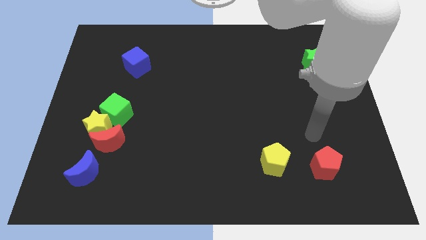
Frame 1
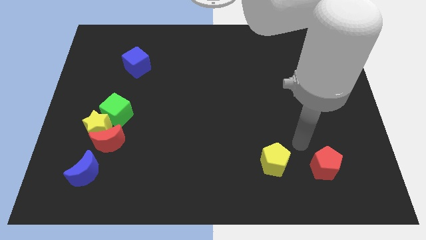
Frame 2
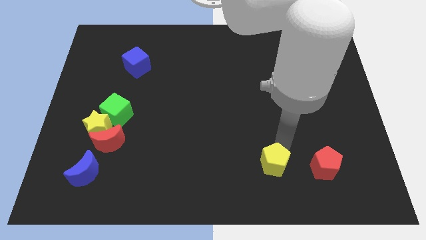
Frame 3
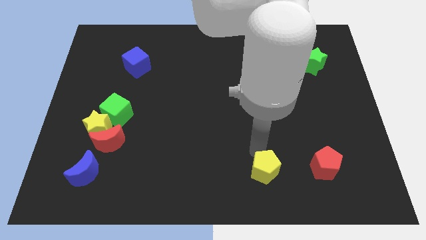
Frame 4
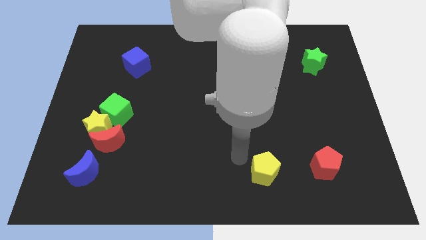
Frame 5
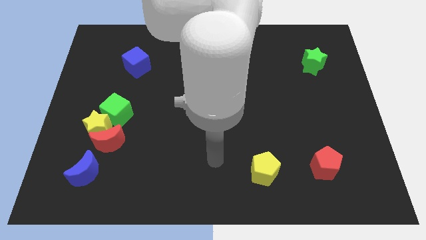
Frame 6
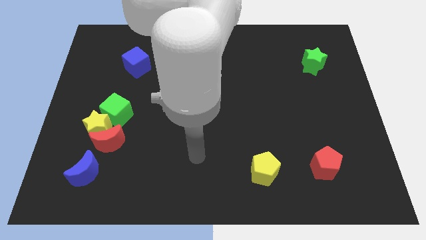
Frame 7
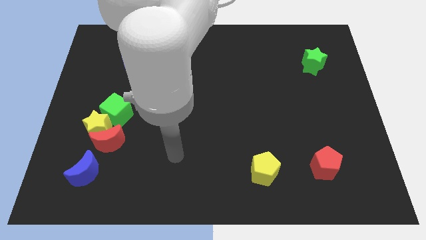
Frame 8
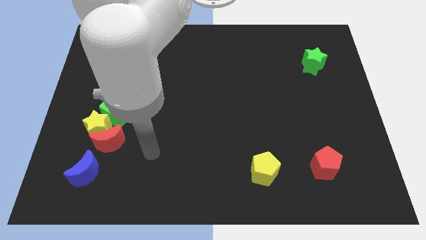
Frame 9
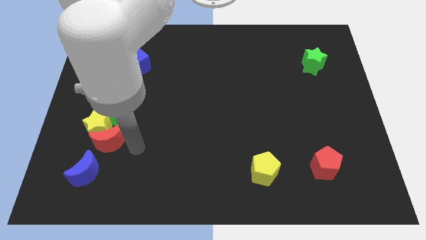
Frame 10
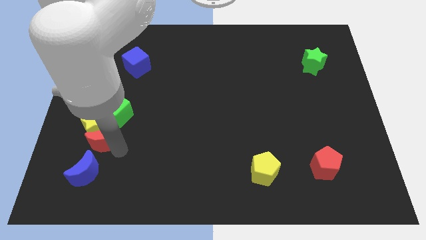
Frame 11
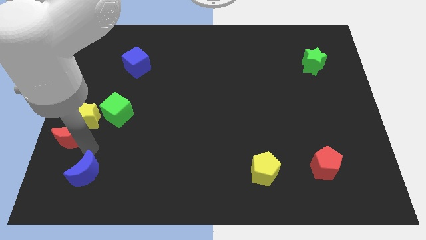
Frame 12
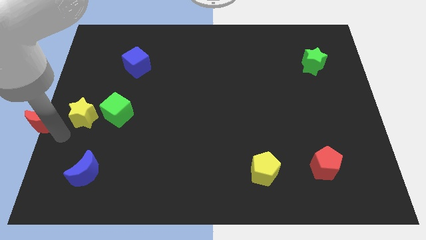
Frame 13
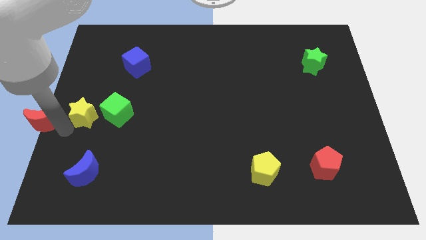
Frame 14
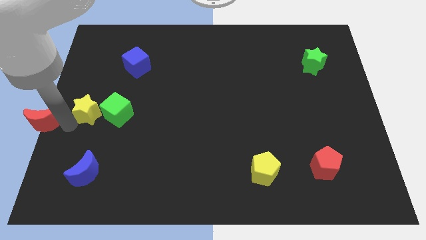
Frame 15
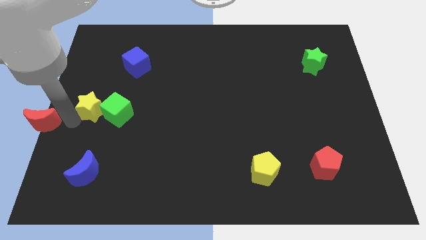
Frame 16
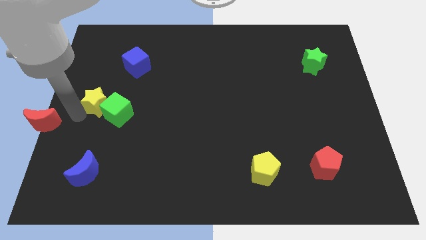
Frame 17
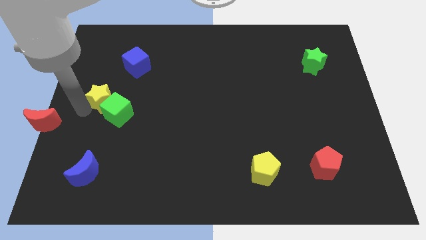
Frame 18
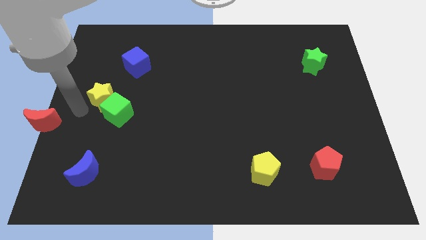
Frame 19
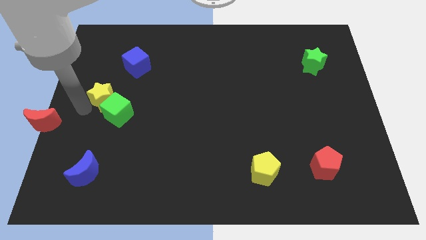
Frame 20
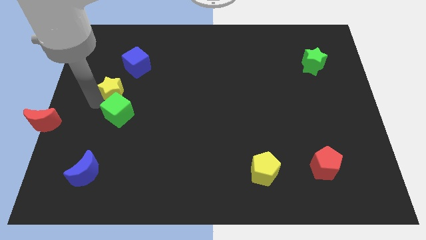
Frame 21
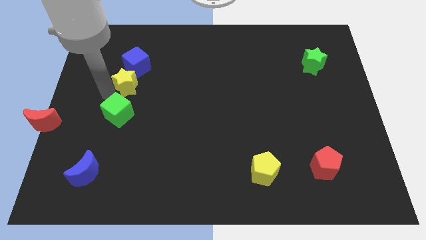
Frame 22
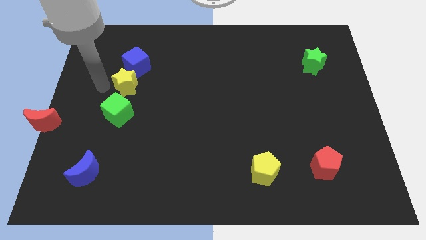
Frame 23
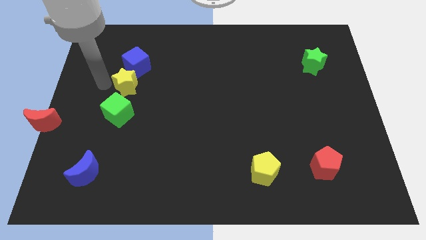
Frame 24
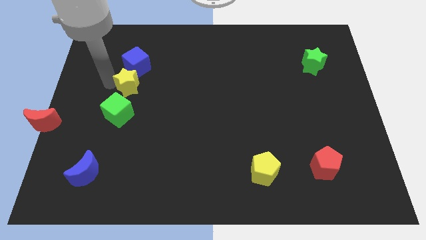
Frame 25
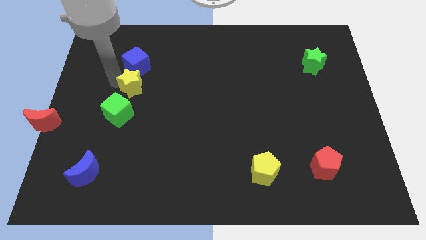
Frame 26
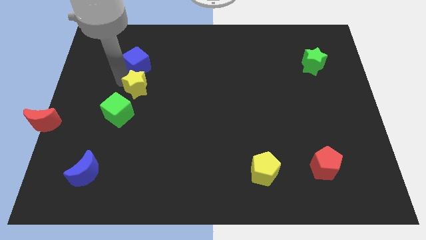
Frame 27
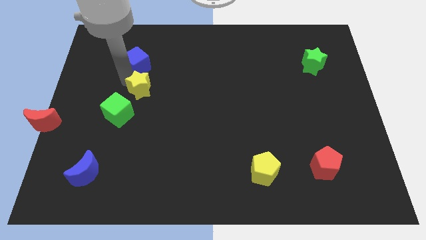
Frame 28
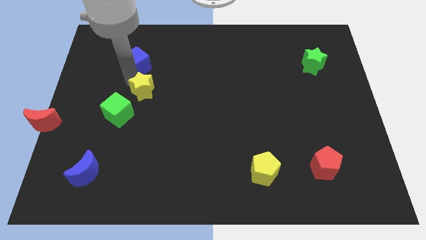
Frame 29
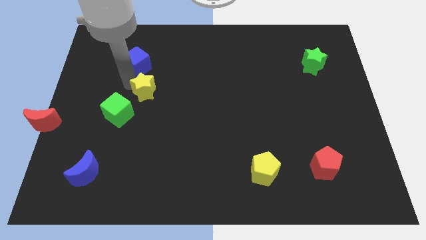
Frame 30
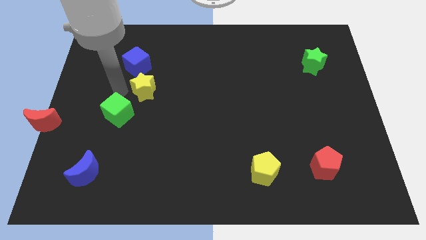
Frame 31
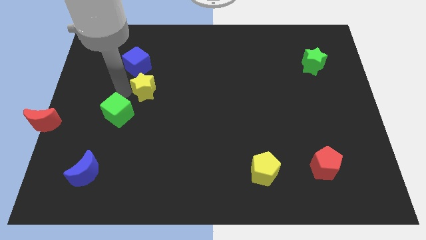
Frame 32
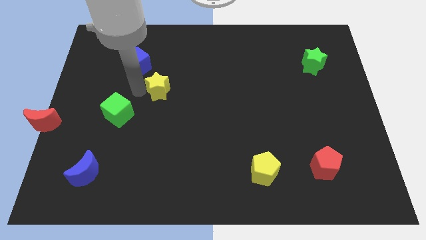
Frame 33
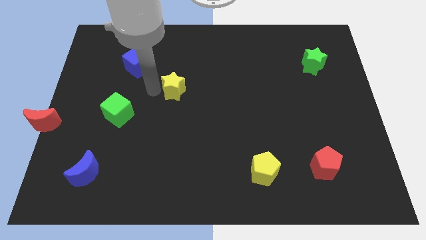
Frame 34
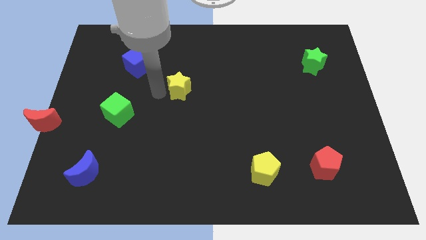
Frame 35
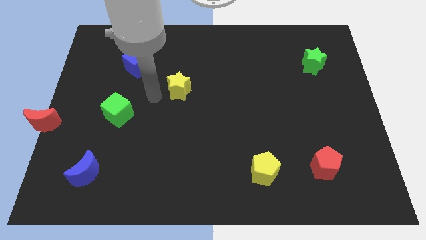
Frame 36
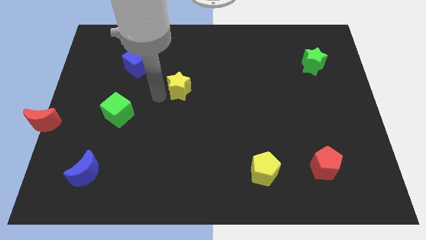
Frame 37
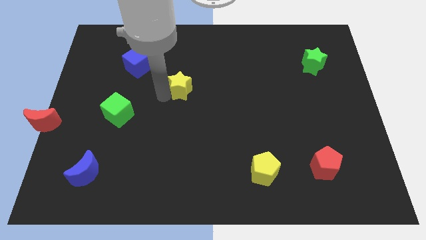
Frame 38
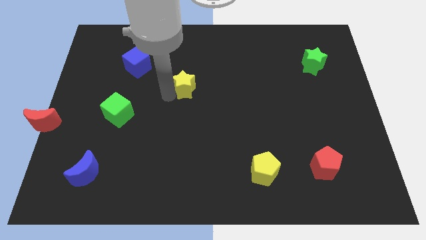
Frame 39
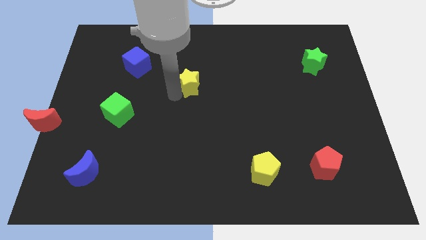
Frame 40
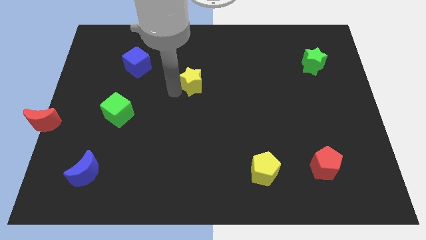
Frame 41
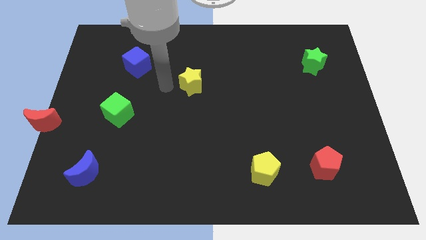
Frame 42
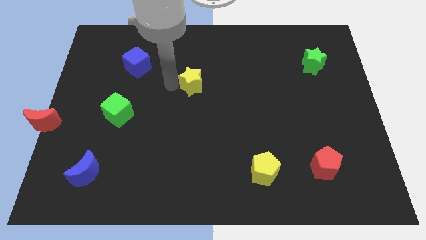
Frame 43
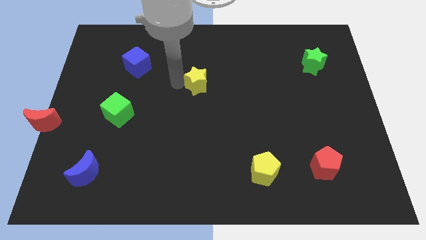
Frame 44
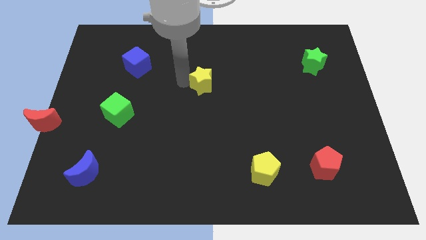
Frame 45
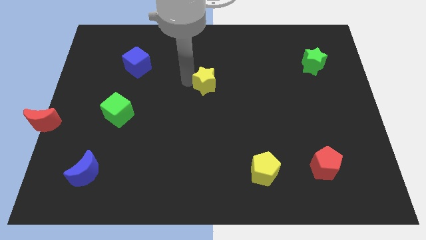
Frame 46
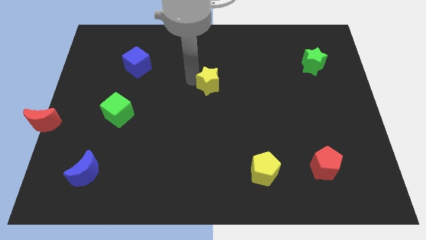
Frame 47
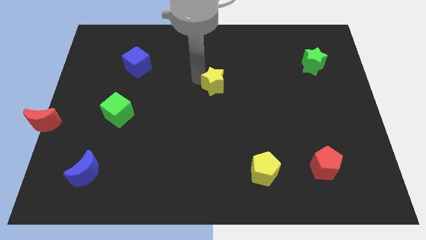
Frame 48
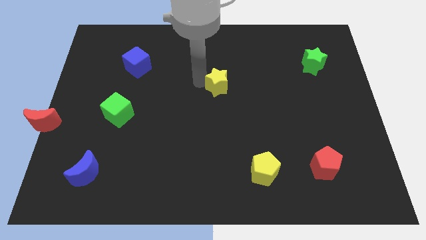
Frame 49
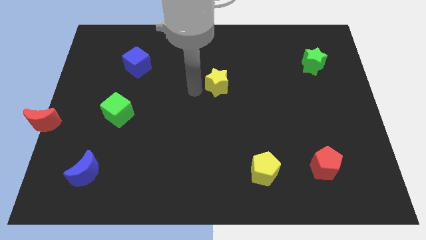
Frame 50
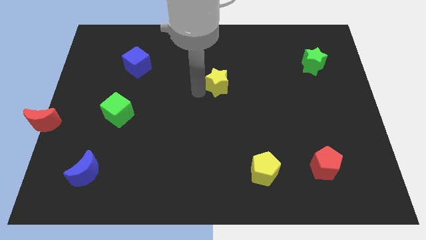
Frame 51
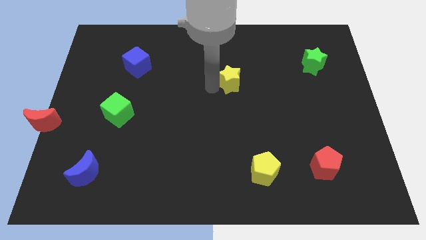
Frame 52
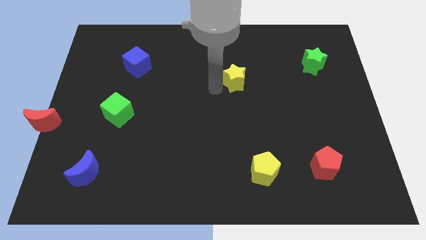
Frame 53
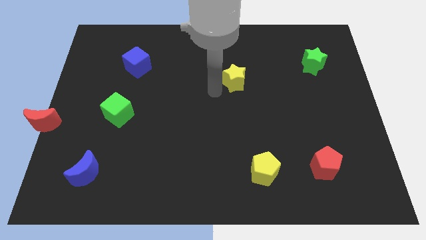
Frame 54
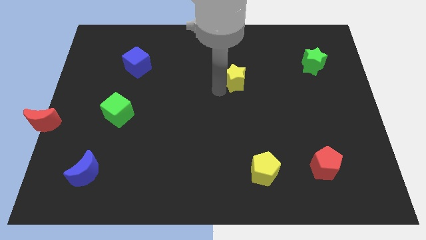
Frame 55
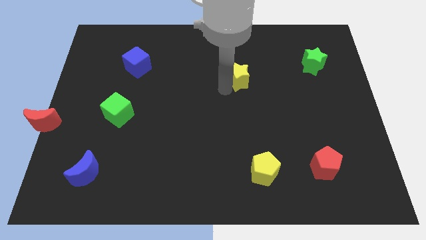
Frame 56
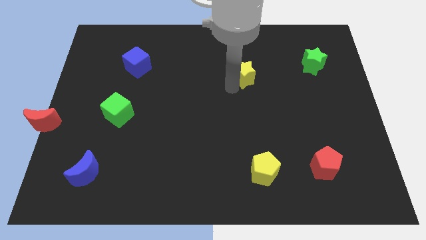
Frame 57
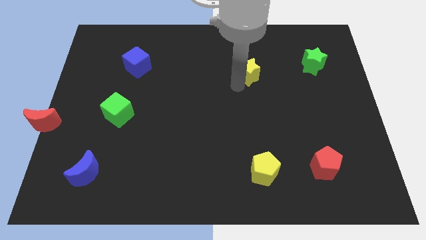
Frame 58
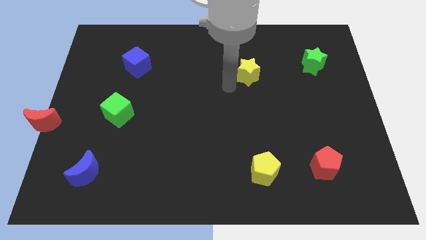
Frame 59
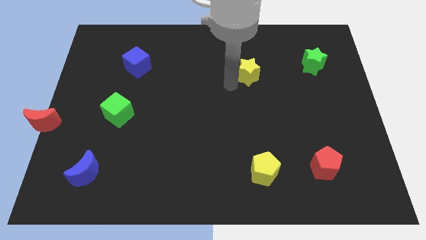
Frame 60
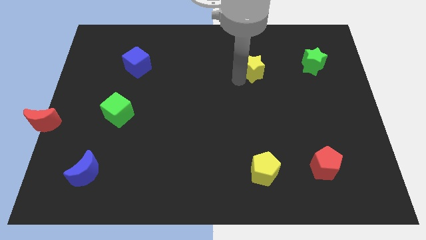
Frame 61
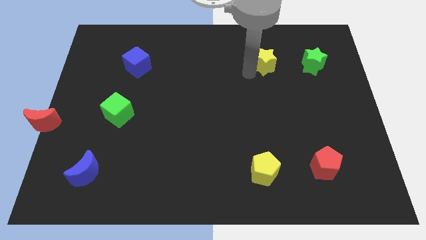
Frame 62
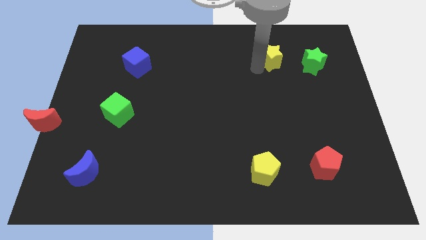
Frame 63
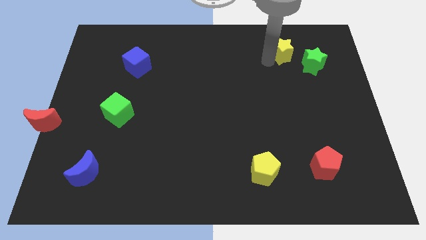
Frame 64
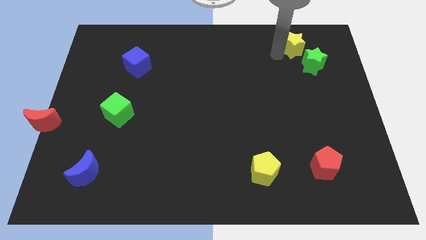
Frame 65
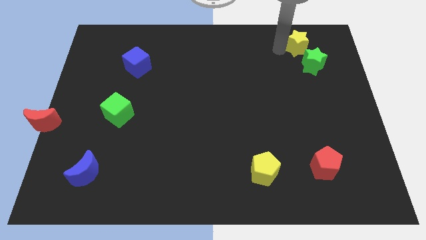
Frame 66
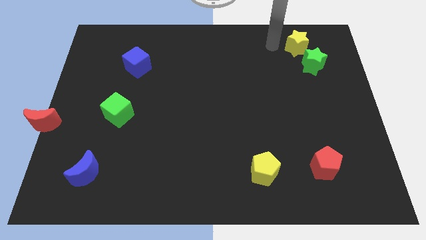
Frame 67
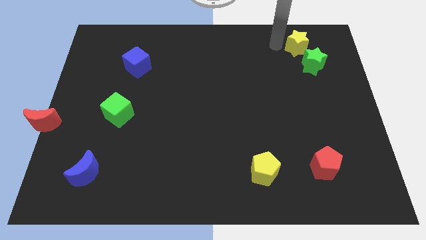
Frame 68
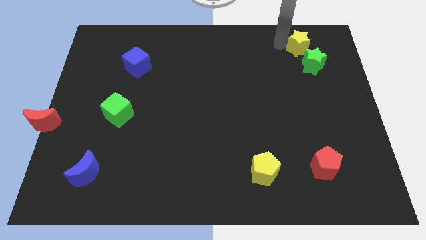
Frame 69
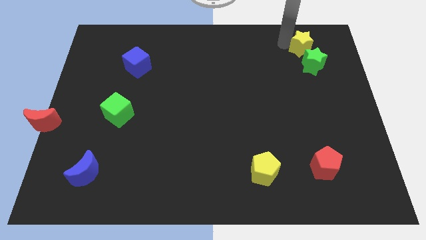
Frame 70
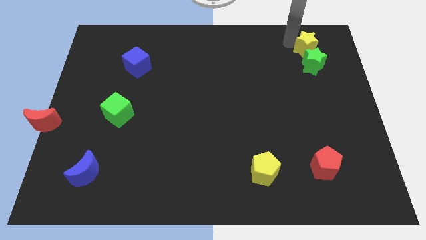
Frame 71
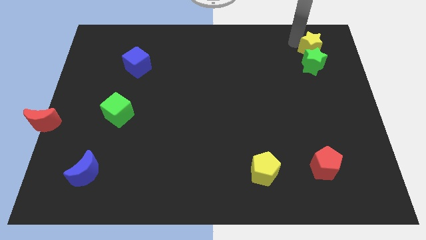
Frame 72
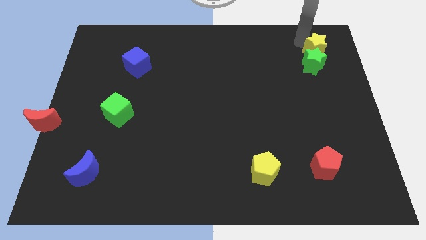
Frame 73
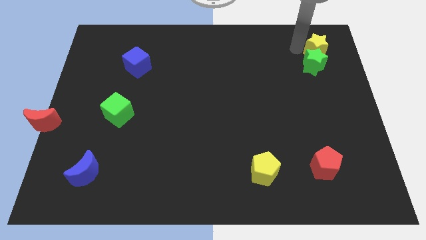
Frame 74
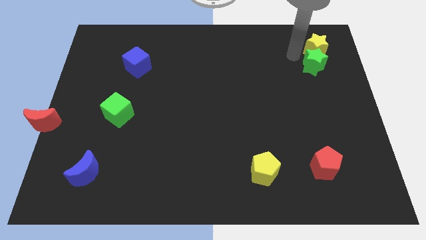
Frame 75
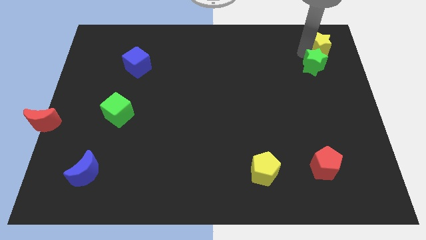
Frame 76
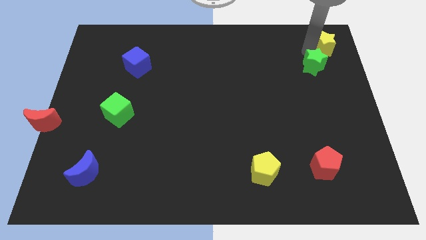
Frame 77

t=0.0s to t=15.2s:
put the yellow star to the upper right corner
